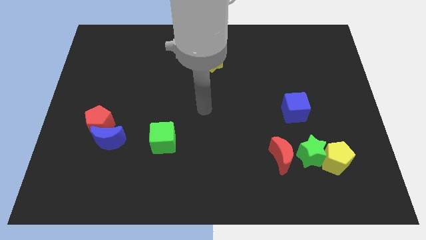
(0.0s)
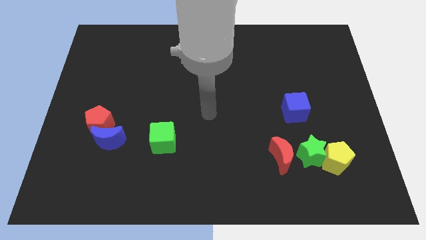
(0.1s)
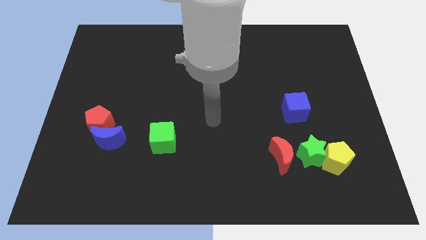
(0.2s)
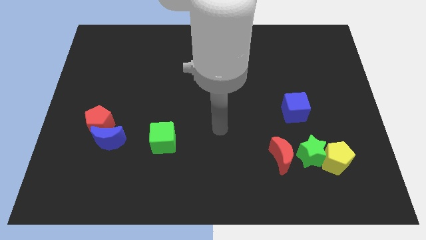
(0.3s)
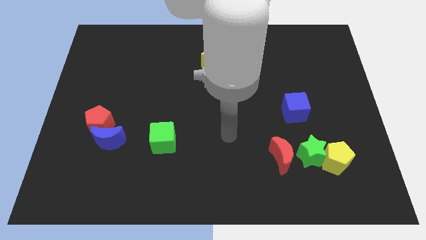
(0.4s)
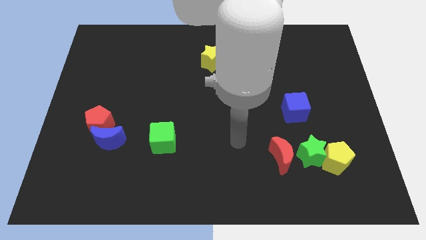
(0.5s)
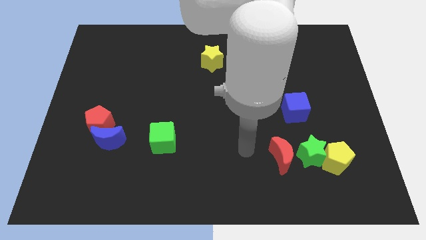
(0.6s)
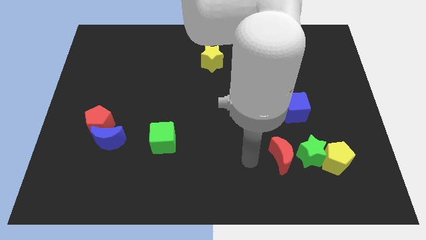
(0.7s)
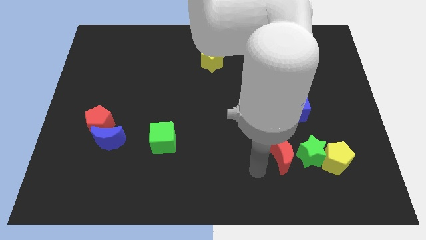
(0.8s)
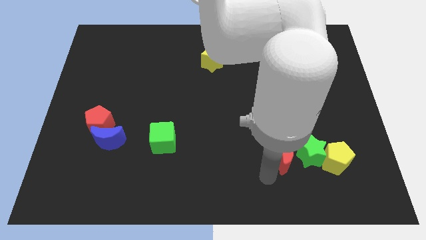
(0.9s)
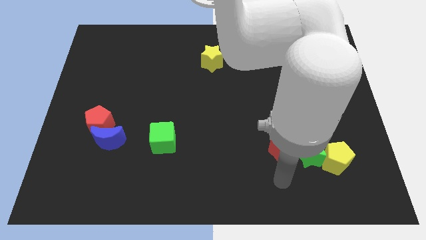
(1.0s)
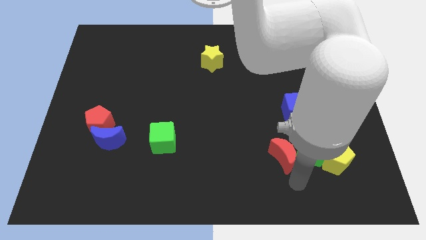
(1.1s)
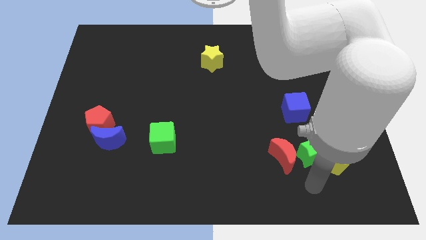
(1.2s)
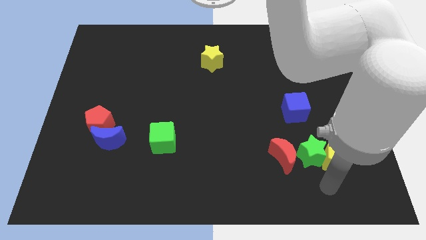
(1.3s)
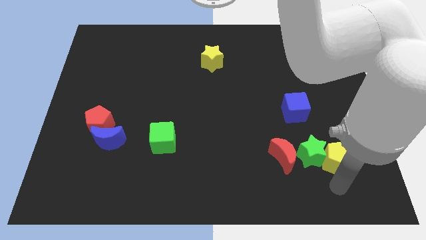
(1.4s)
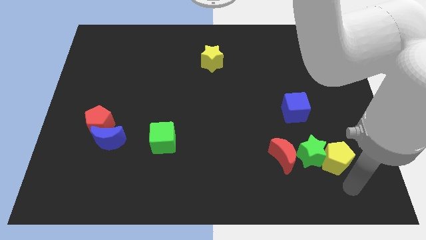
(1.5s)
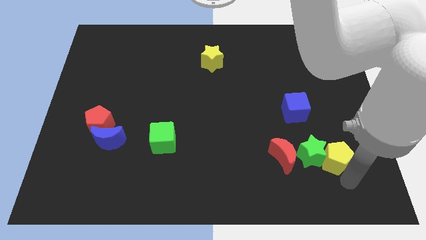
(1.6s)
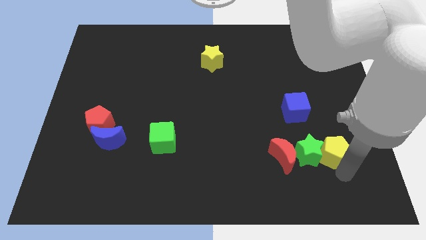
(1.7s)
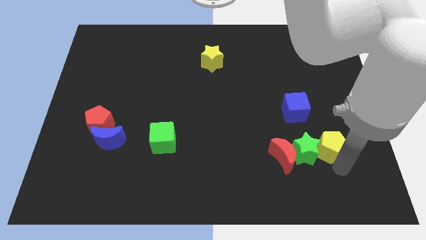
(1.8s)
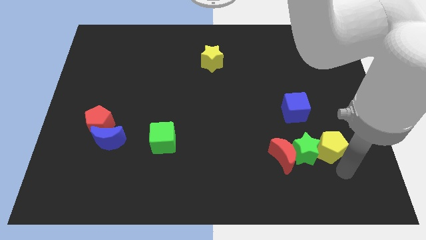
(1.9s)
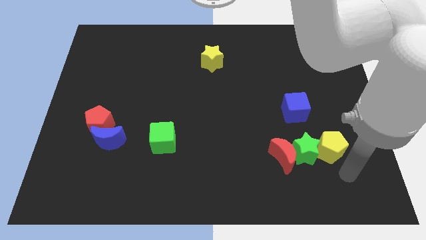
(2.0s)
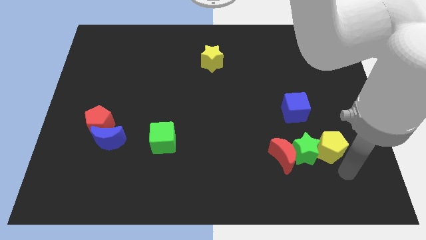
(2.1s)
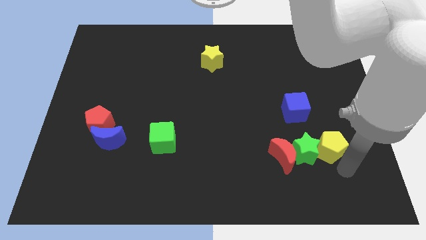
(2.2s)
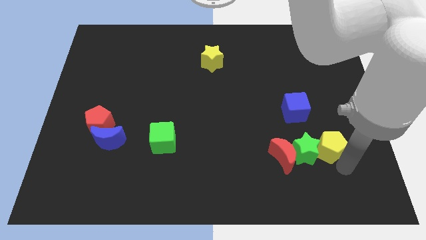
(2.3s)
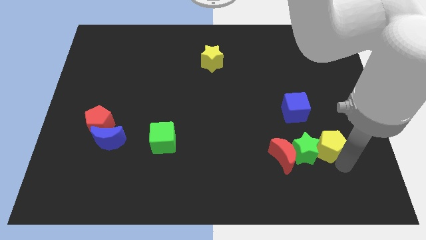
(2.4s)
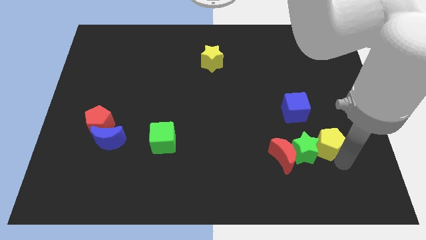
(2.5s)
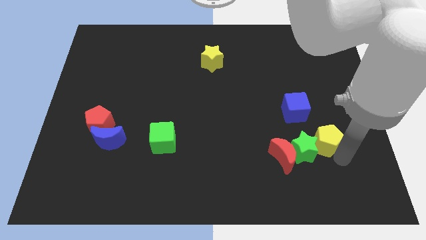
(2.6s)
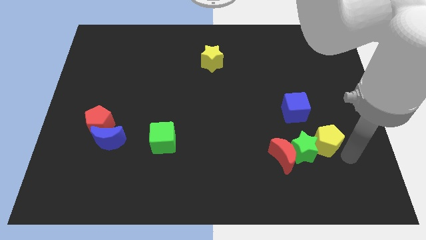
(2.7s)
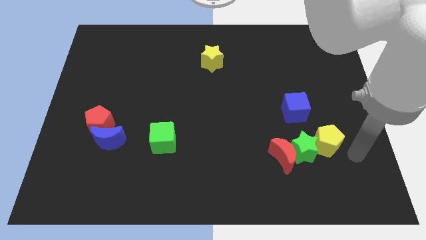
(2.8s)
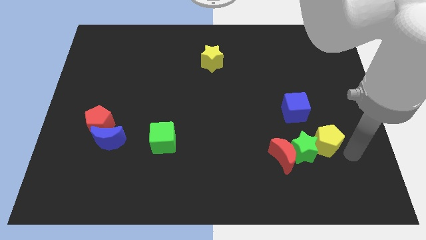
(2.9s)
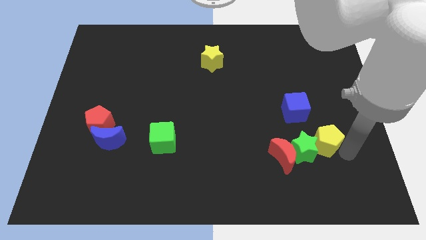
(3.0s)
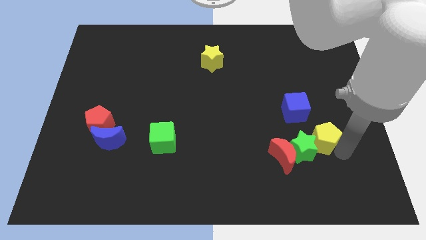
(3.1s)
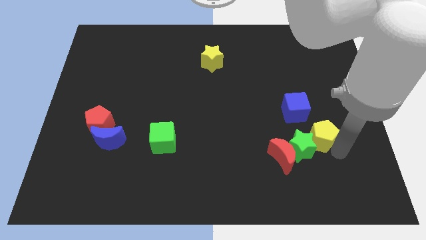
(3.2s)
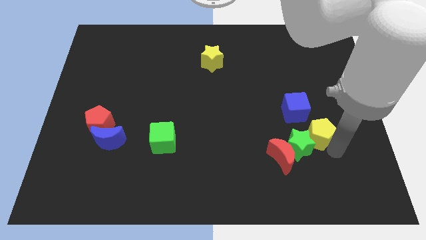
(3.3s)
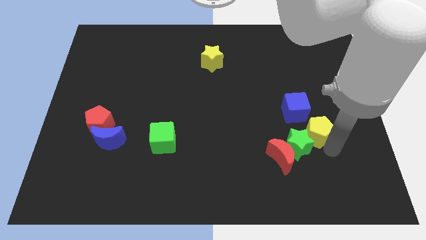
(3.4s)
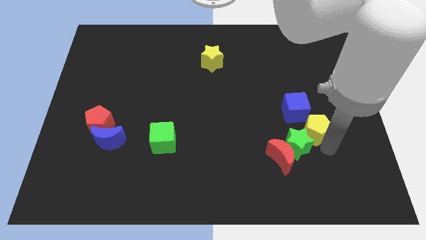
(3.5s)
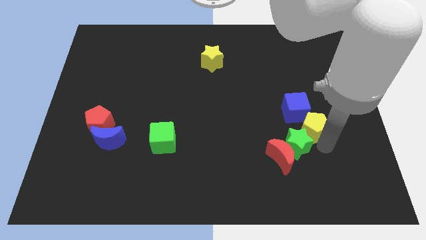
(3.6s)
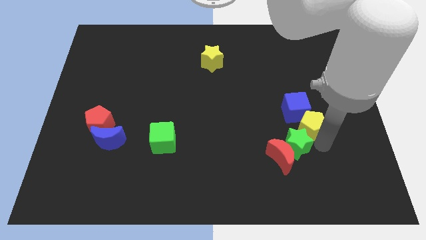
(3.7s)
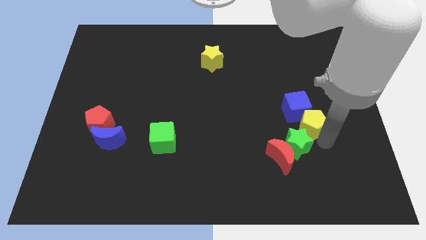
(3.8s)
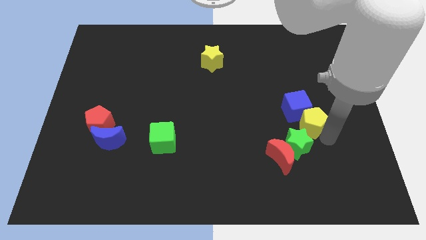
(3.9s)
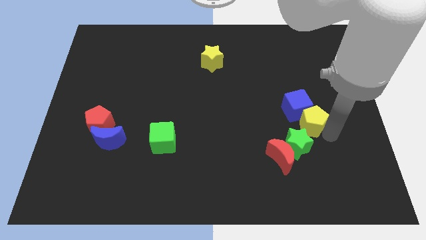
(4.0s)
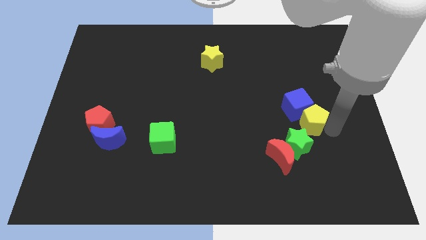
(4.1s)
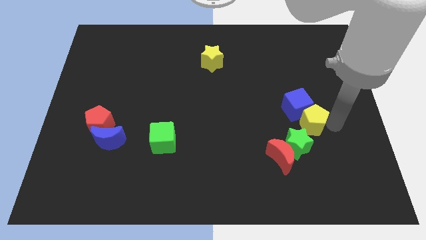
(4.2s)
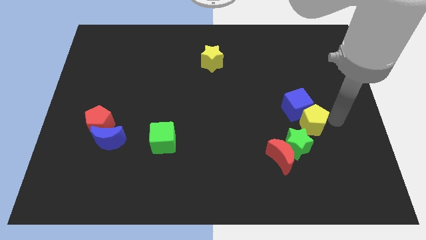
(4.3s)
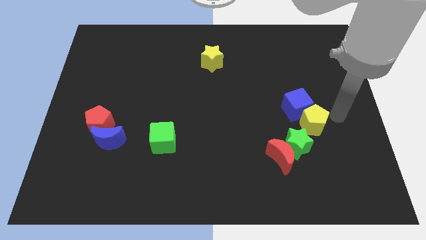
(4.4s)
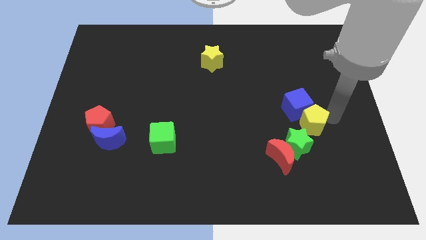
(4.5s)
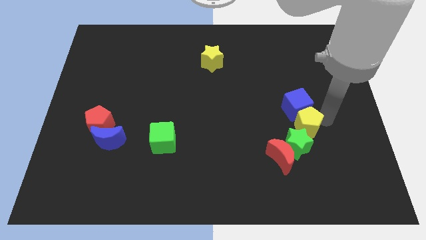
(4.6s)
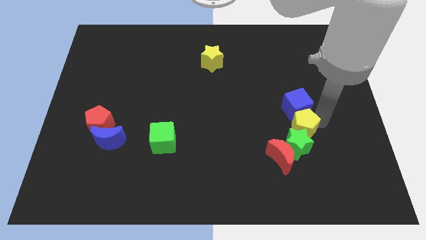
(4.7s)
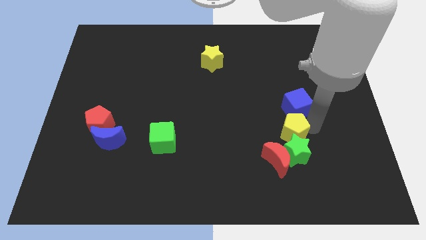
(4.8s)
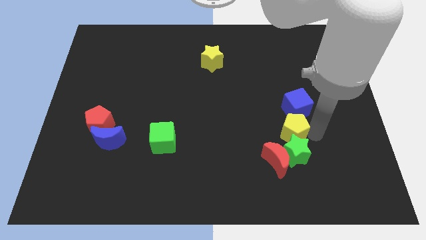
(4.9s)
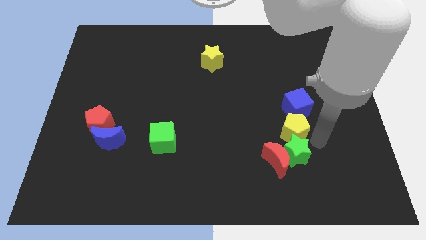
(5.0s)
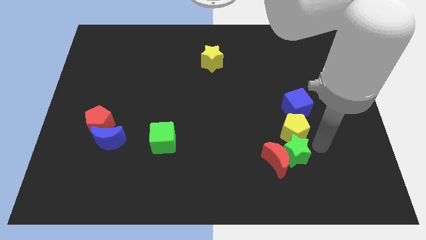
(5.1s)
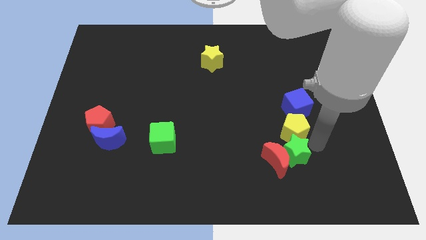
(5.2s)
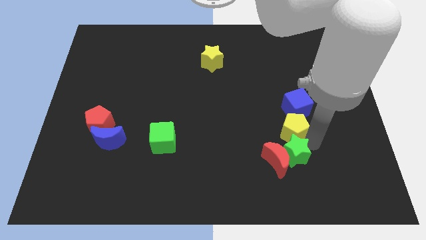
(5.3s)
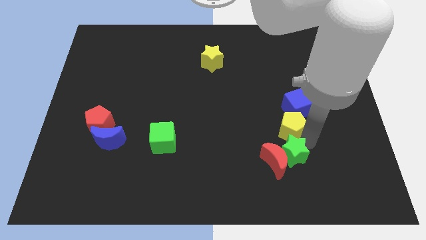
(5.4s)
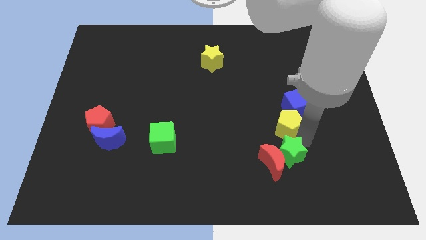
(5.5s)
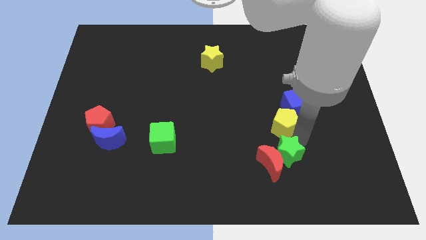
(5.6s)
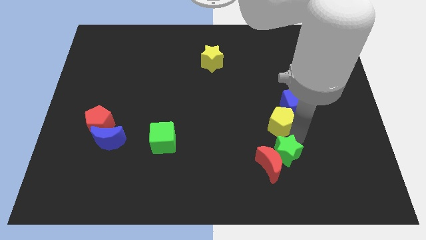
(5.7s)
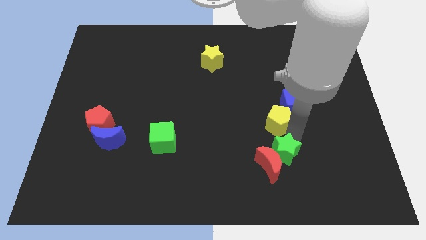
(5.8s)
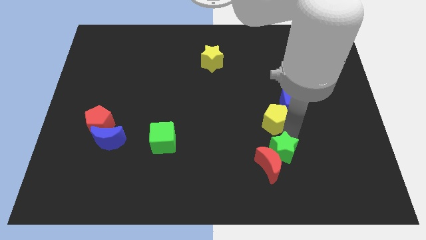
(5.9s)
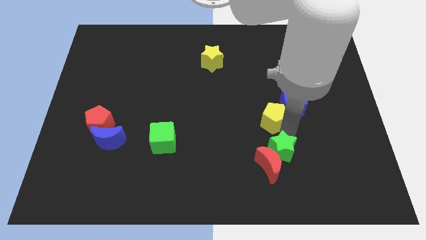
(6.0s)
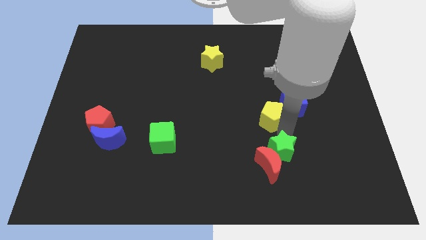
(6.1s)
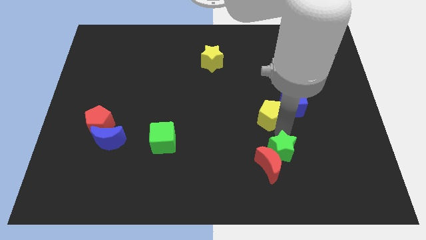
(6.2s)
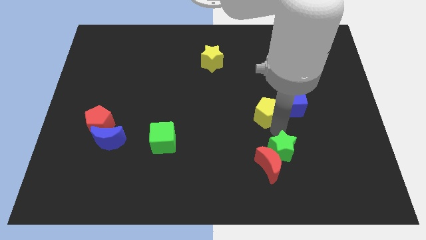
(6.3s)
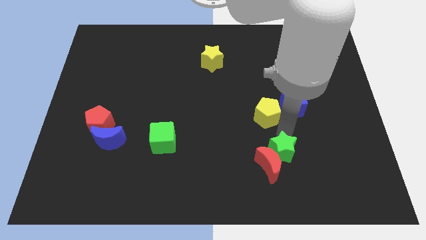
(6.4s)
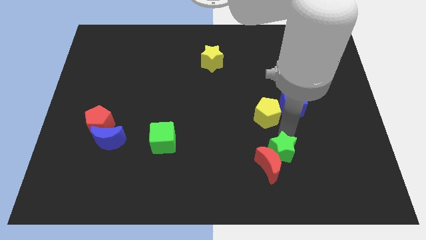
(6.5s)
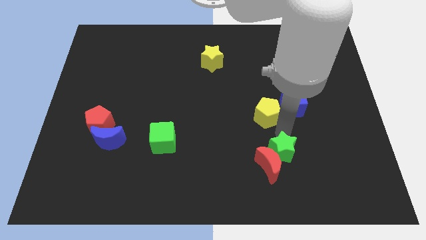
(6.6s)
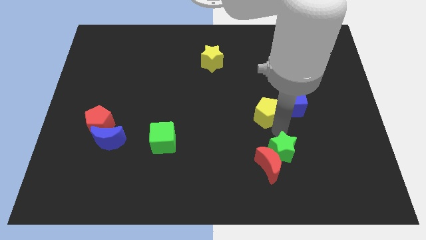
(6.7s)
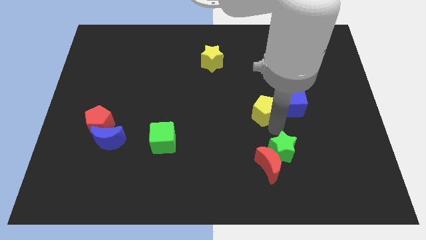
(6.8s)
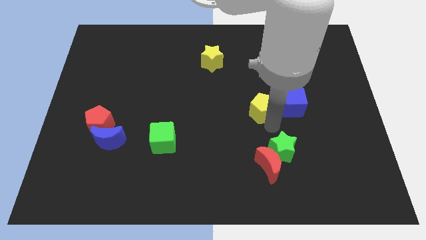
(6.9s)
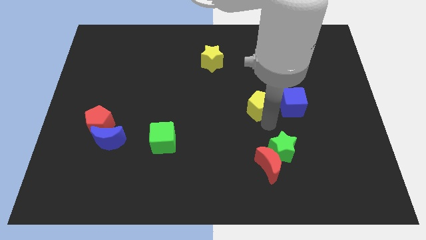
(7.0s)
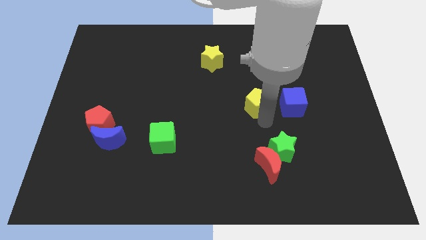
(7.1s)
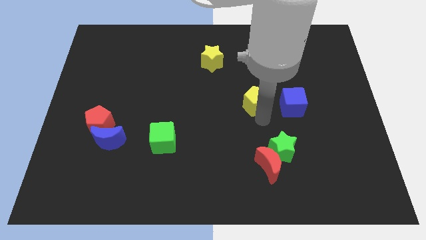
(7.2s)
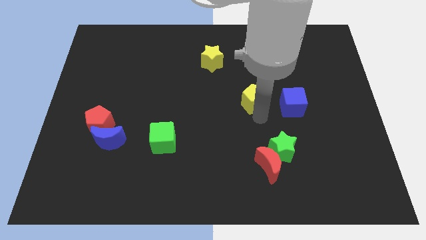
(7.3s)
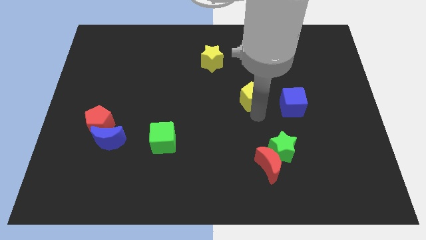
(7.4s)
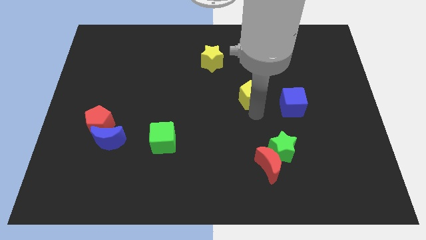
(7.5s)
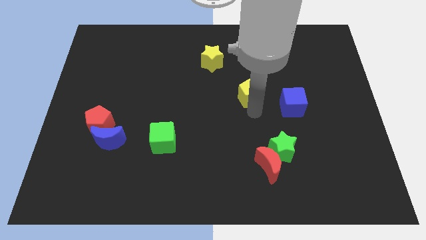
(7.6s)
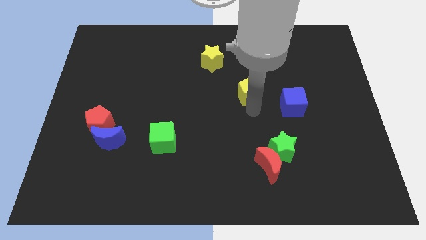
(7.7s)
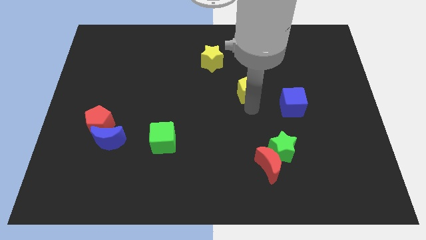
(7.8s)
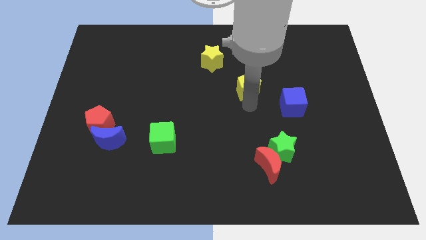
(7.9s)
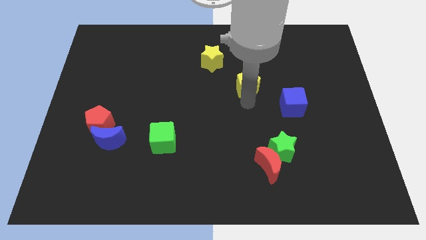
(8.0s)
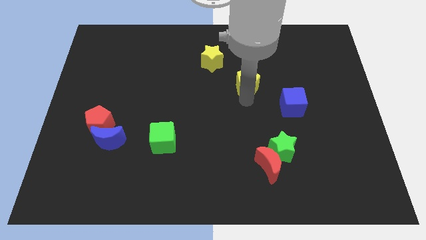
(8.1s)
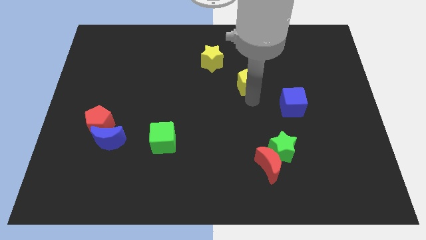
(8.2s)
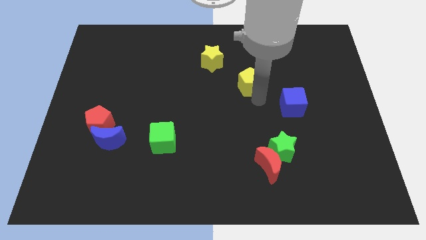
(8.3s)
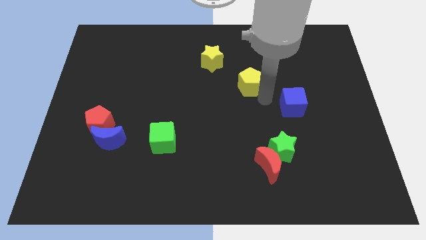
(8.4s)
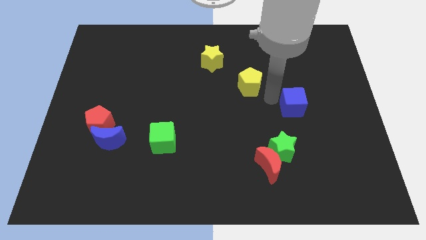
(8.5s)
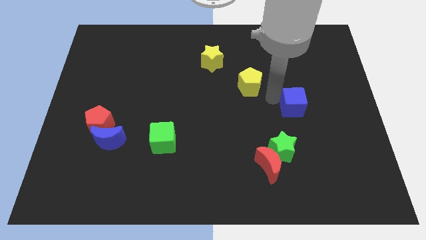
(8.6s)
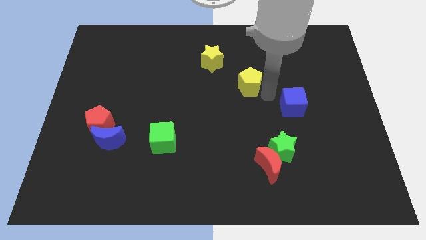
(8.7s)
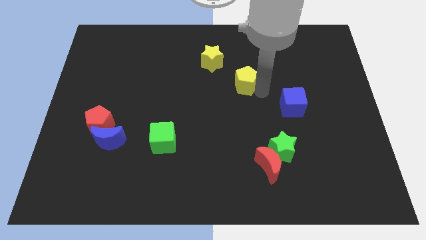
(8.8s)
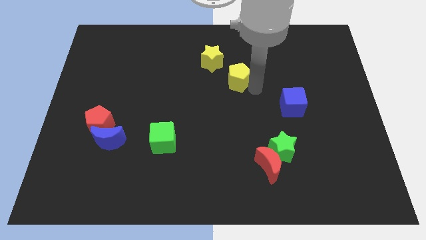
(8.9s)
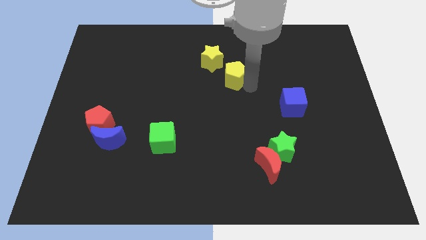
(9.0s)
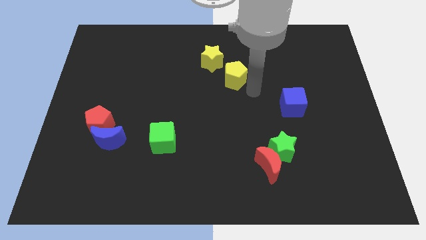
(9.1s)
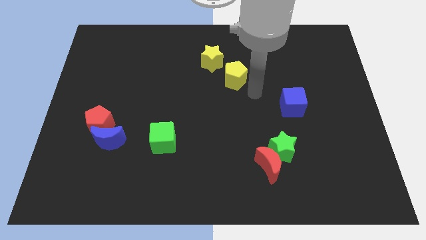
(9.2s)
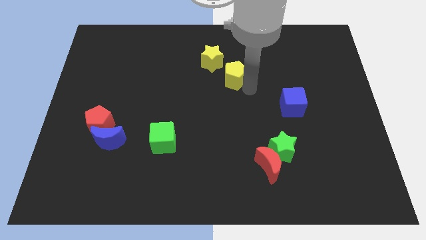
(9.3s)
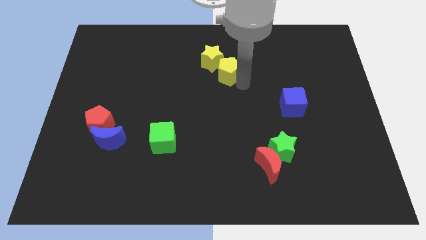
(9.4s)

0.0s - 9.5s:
move the yellow pentagon to the yellow star
